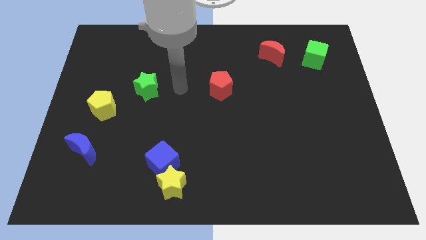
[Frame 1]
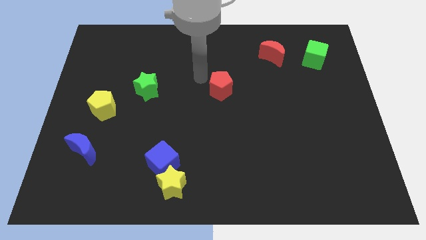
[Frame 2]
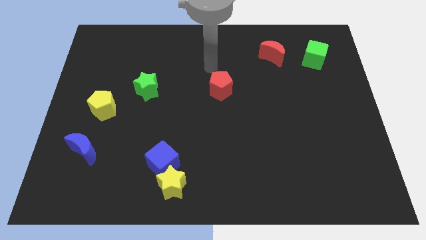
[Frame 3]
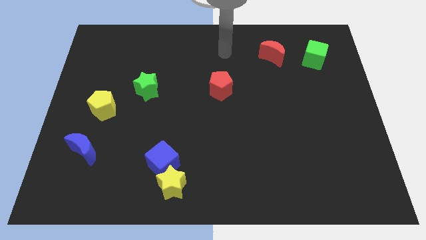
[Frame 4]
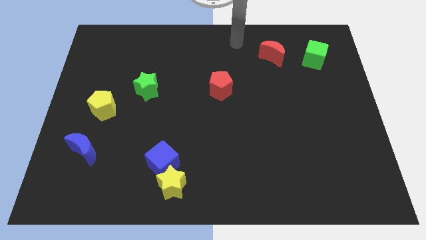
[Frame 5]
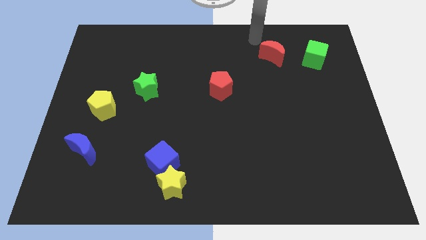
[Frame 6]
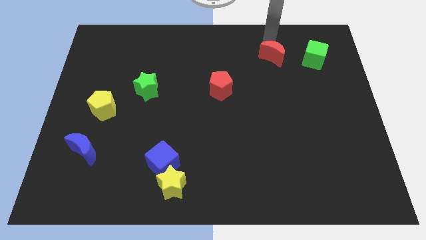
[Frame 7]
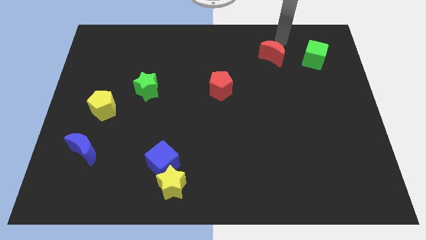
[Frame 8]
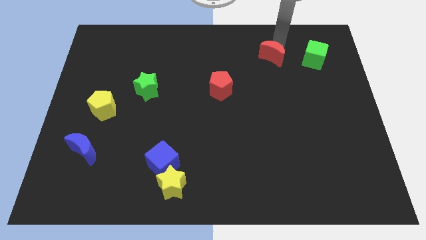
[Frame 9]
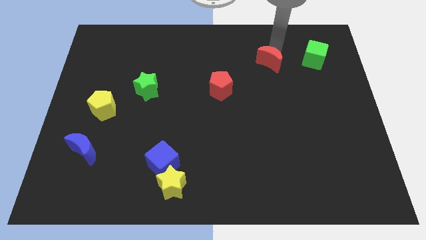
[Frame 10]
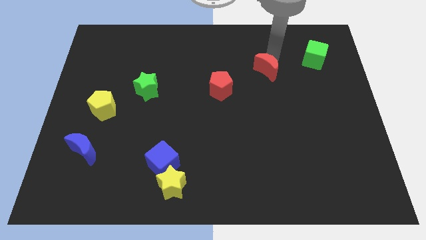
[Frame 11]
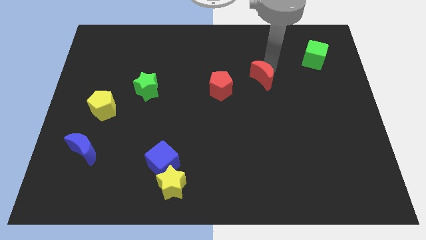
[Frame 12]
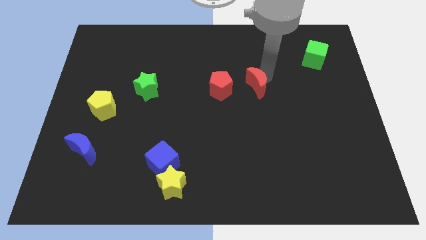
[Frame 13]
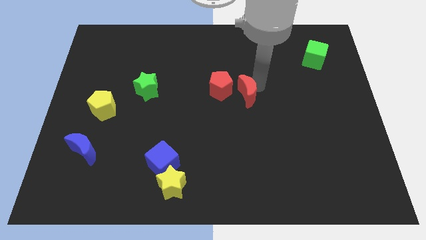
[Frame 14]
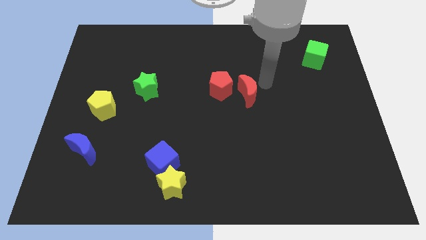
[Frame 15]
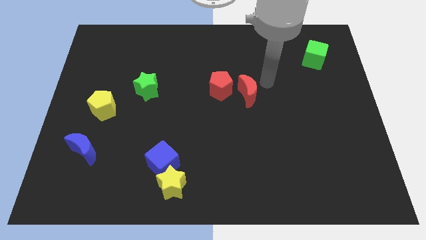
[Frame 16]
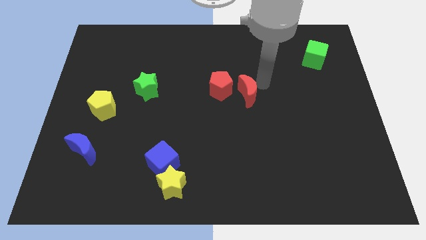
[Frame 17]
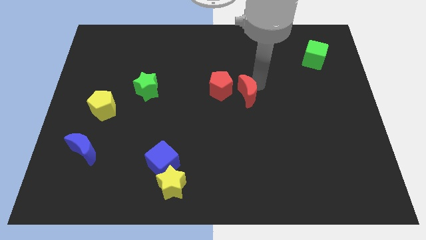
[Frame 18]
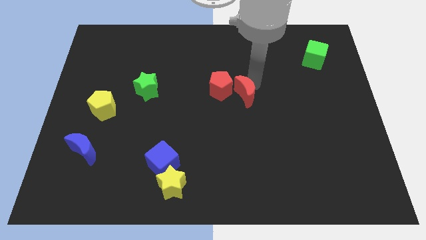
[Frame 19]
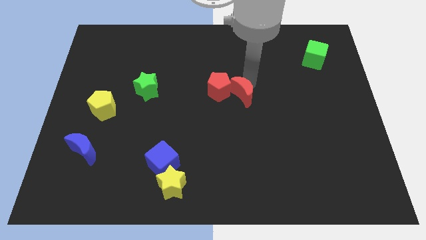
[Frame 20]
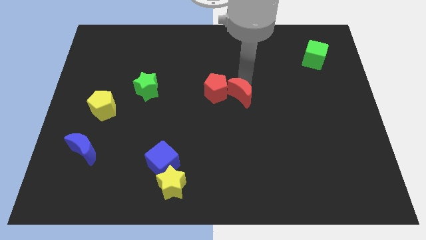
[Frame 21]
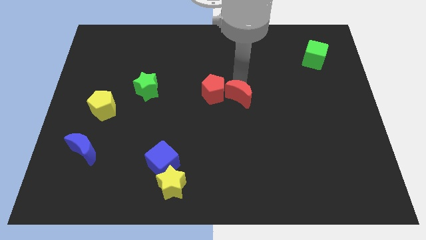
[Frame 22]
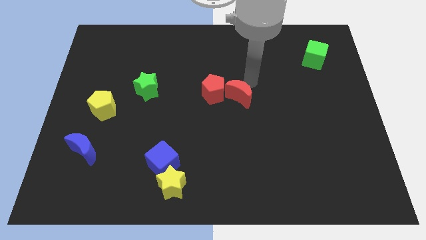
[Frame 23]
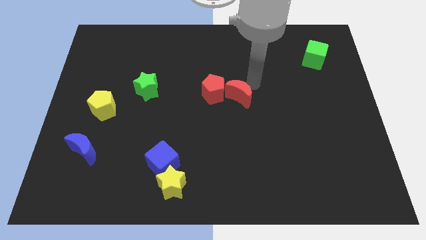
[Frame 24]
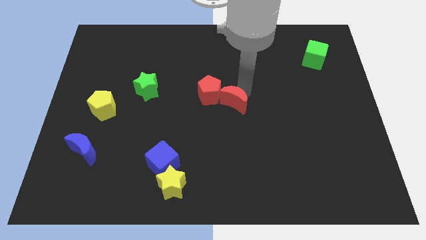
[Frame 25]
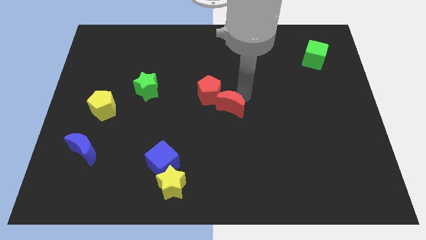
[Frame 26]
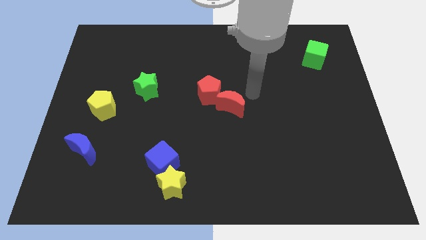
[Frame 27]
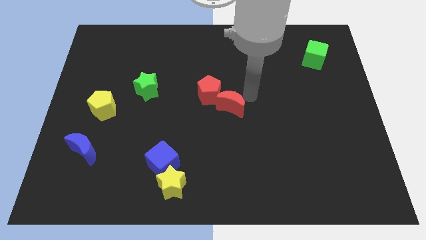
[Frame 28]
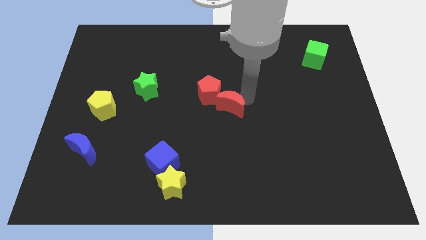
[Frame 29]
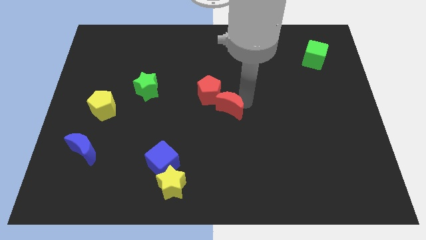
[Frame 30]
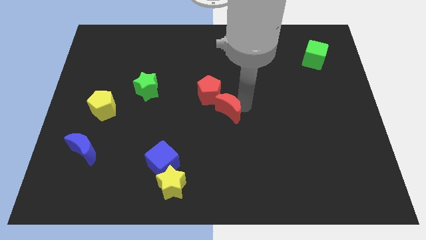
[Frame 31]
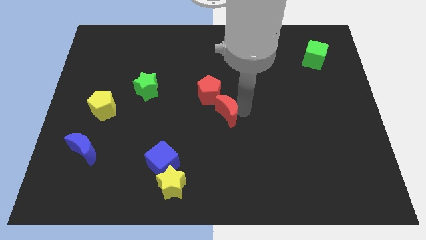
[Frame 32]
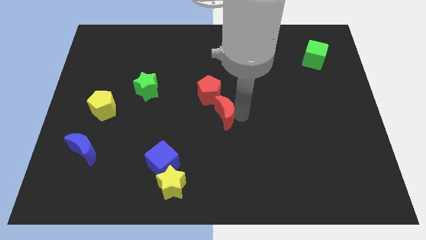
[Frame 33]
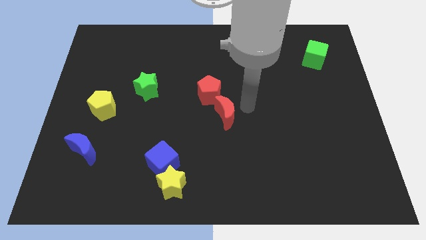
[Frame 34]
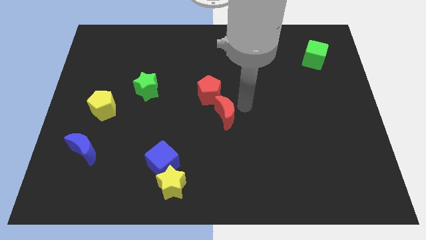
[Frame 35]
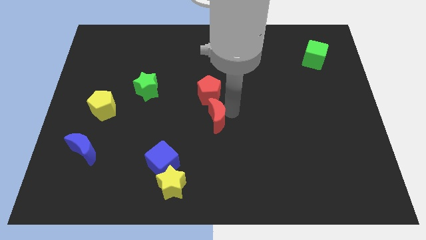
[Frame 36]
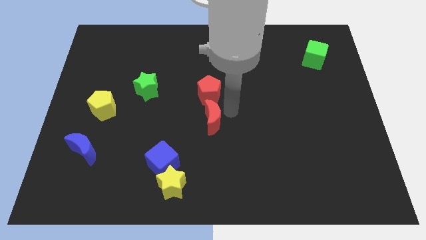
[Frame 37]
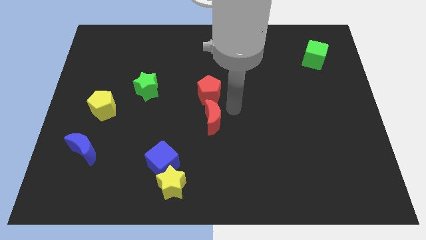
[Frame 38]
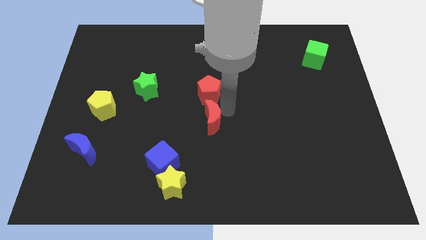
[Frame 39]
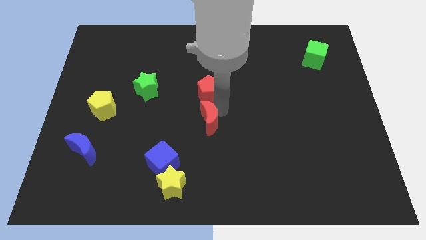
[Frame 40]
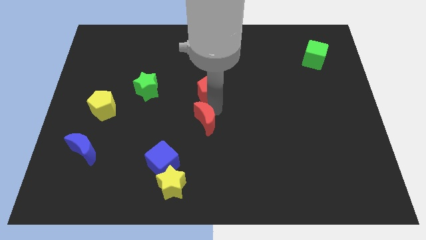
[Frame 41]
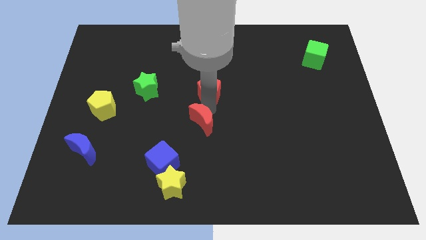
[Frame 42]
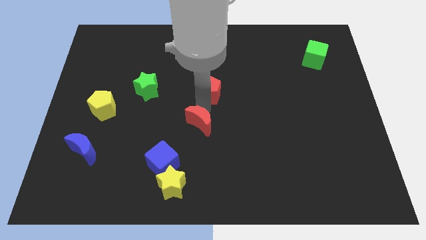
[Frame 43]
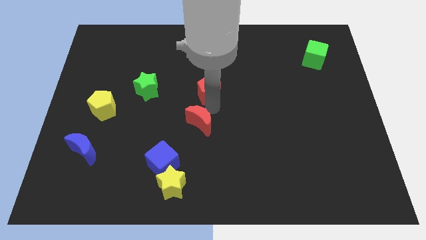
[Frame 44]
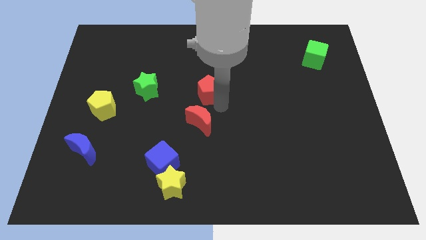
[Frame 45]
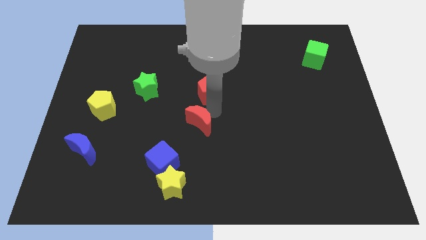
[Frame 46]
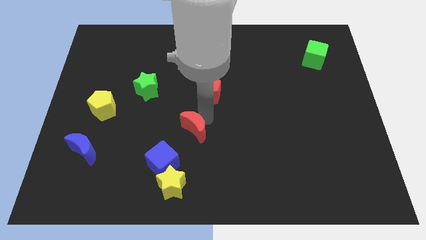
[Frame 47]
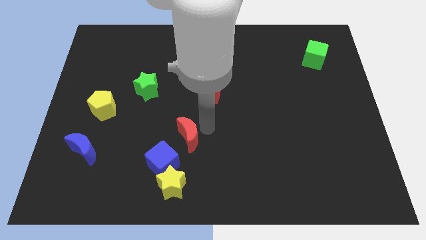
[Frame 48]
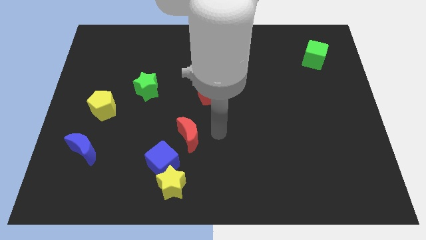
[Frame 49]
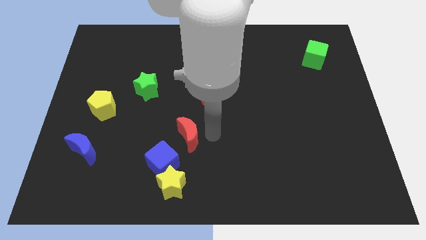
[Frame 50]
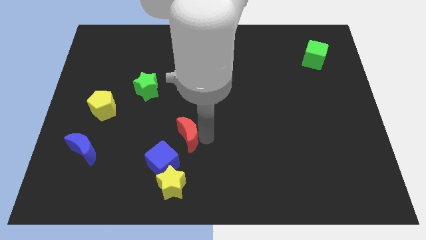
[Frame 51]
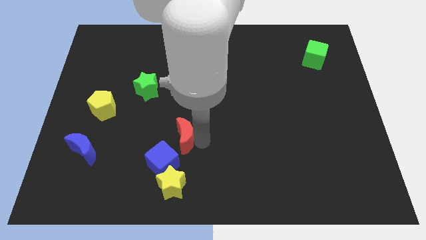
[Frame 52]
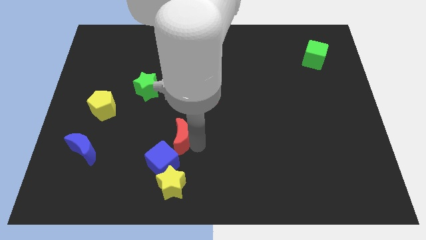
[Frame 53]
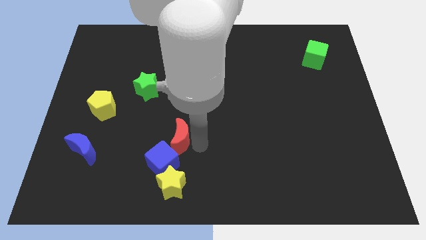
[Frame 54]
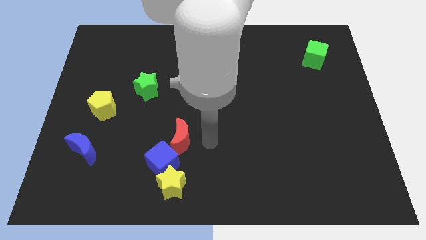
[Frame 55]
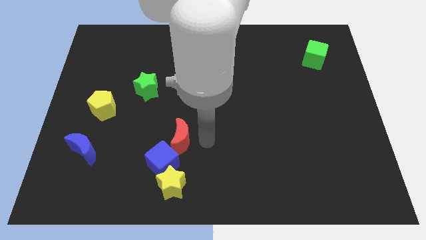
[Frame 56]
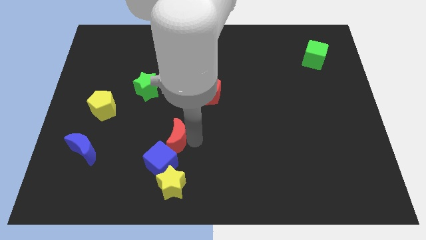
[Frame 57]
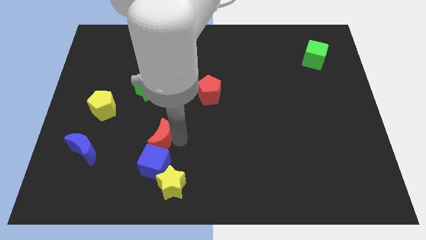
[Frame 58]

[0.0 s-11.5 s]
push the red moon diagonally up and to the left of the blue cube

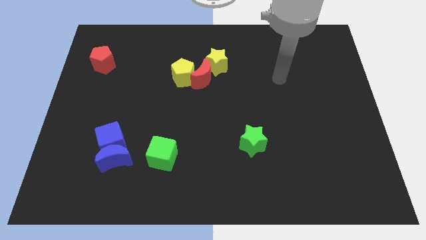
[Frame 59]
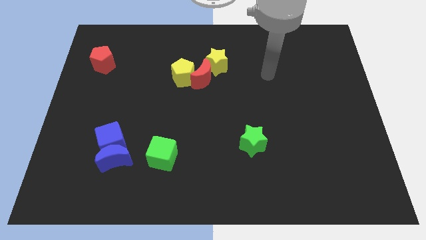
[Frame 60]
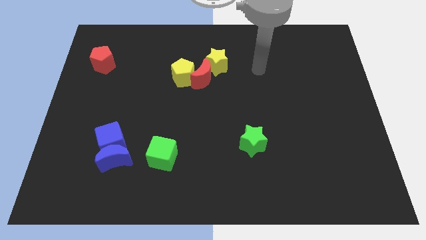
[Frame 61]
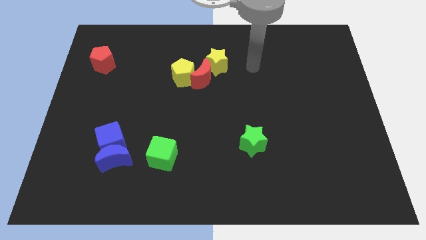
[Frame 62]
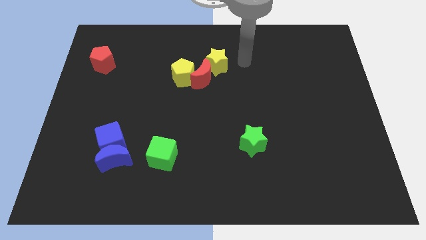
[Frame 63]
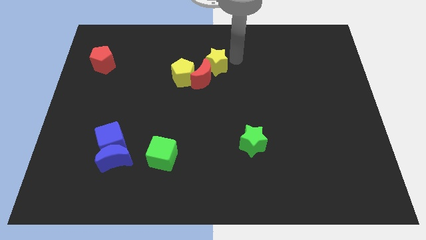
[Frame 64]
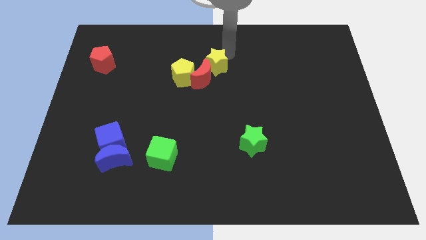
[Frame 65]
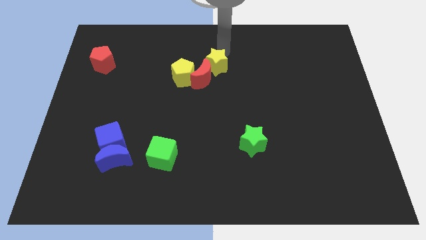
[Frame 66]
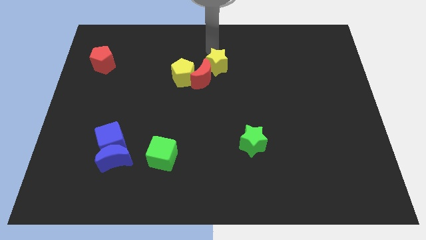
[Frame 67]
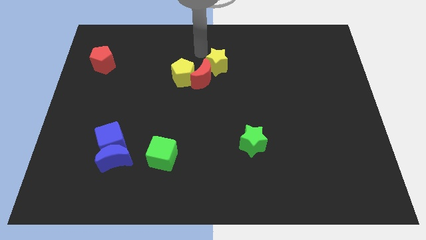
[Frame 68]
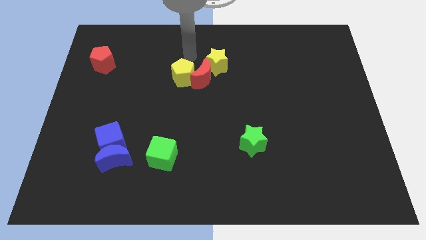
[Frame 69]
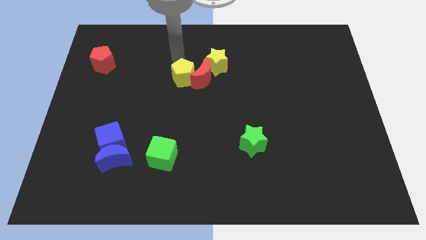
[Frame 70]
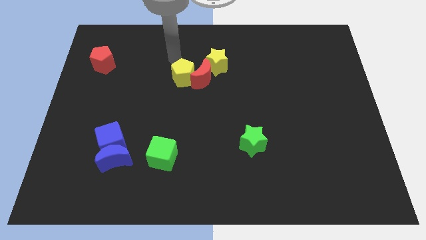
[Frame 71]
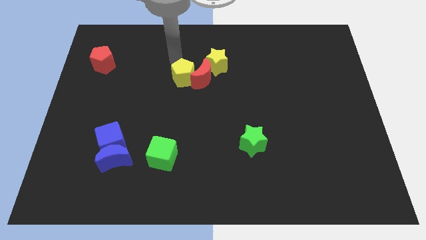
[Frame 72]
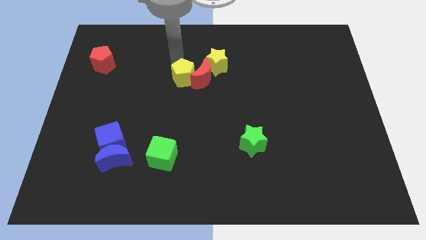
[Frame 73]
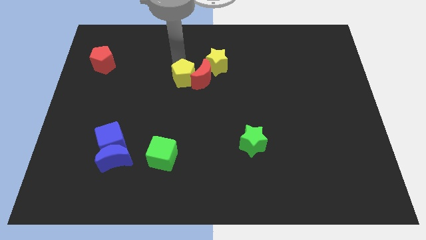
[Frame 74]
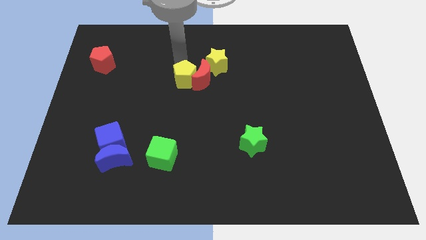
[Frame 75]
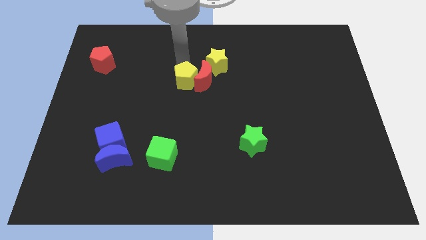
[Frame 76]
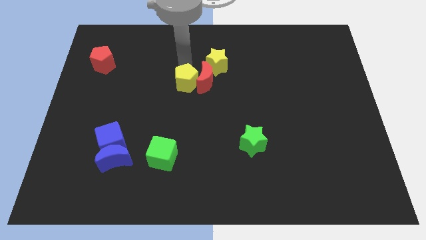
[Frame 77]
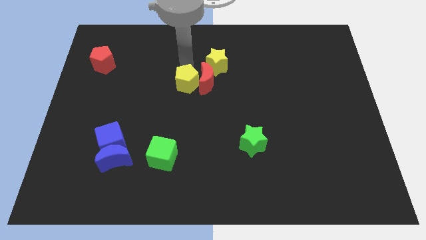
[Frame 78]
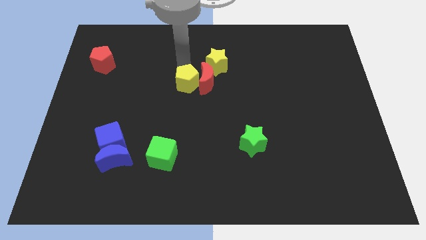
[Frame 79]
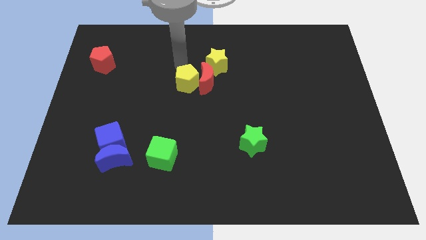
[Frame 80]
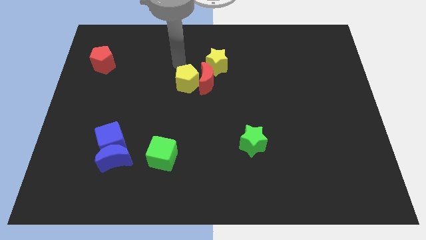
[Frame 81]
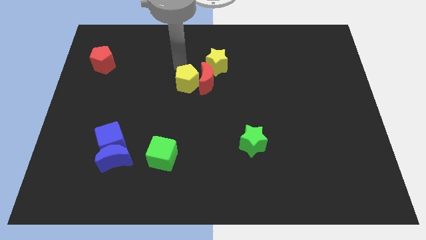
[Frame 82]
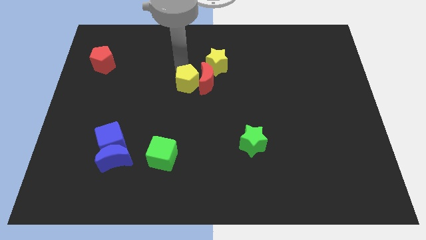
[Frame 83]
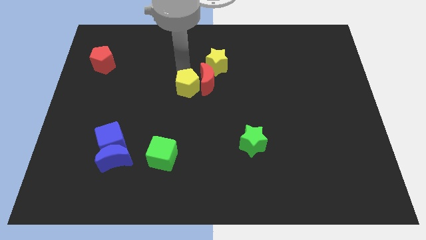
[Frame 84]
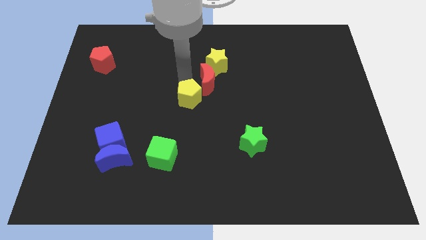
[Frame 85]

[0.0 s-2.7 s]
slide the yellow pentagon to the bottom side of the red moon

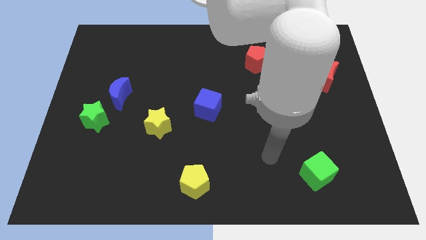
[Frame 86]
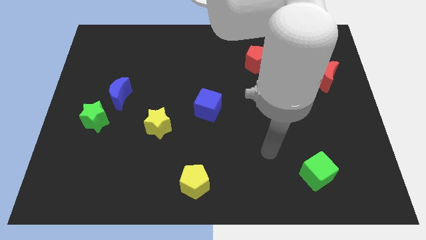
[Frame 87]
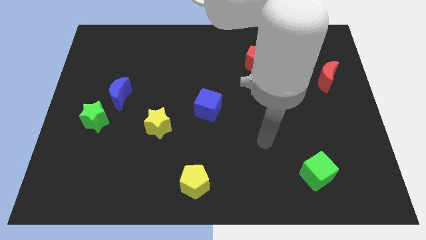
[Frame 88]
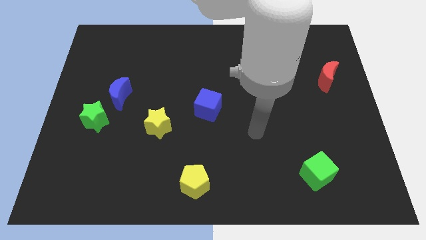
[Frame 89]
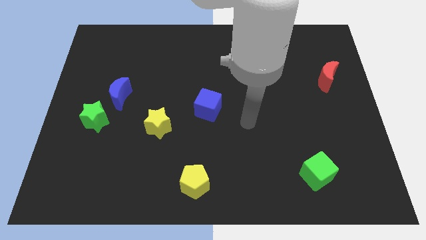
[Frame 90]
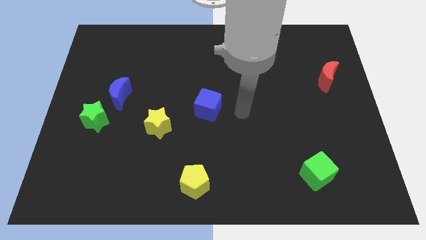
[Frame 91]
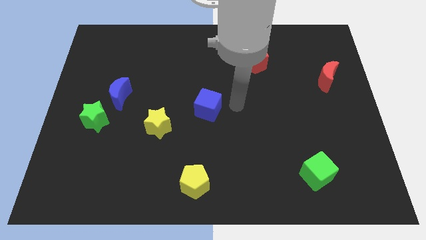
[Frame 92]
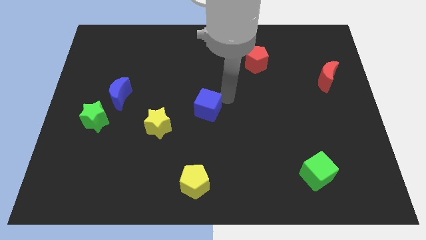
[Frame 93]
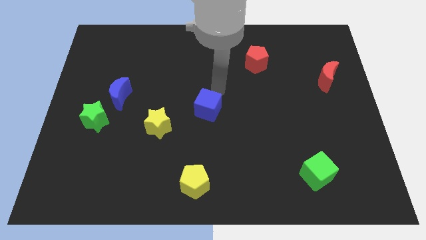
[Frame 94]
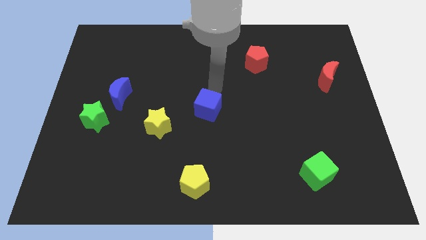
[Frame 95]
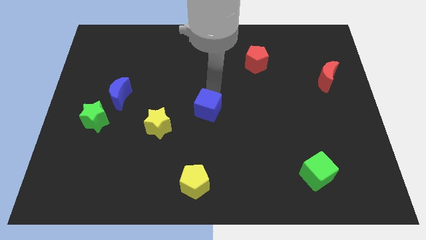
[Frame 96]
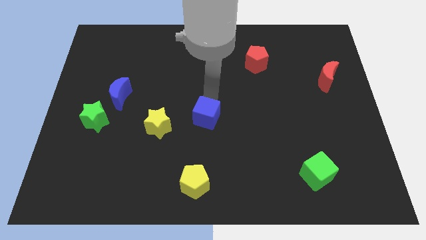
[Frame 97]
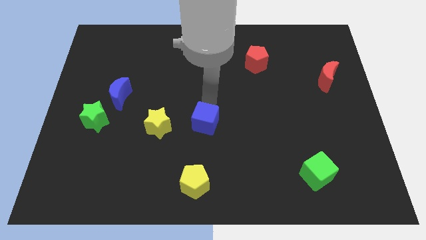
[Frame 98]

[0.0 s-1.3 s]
slide the blue cube to the top of the yellow pentagon
